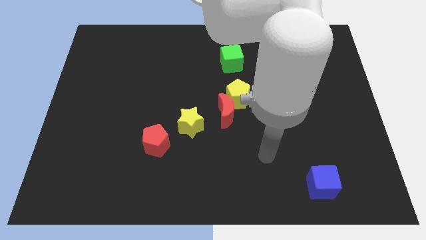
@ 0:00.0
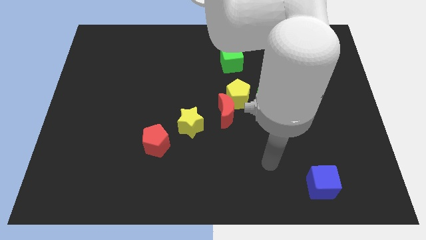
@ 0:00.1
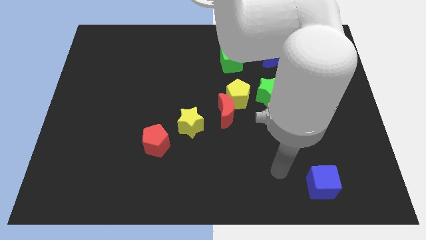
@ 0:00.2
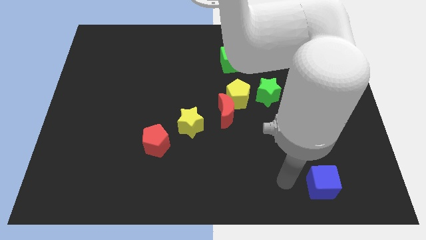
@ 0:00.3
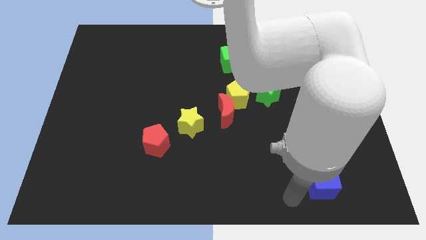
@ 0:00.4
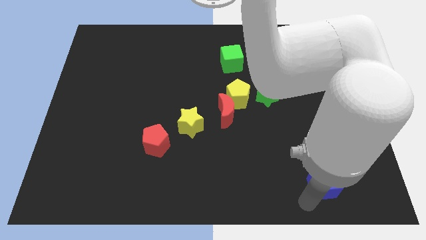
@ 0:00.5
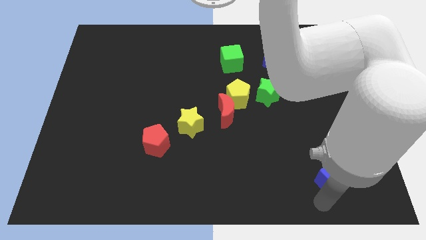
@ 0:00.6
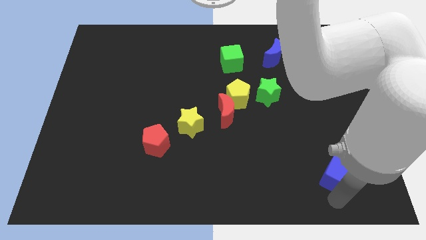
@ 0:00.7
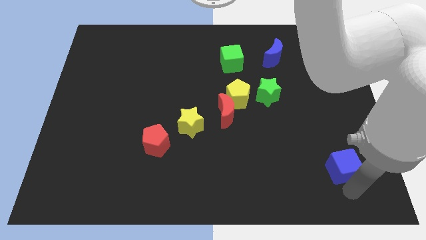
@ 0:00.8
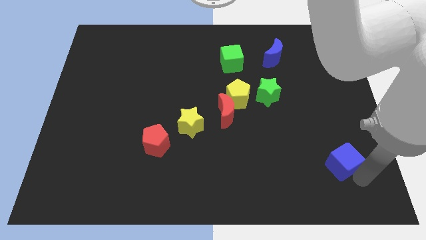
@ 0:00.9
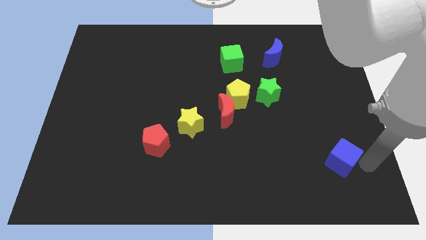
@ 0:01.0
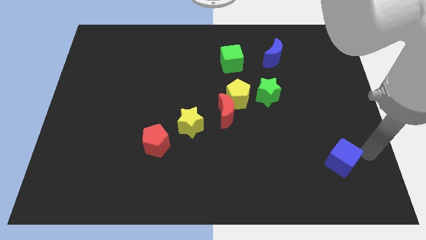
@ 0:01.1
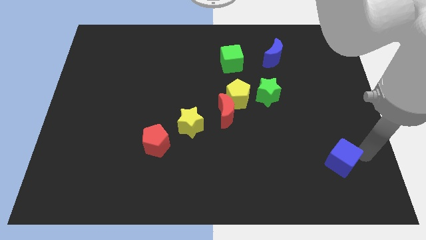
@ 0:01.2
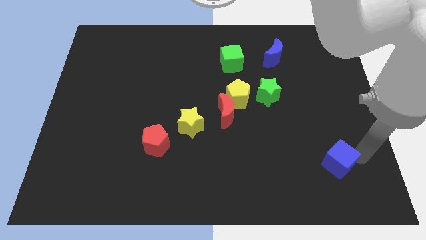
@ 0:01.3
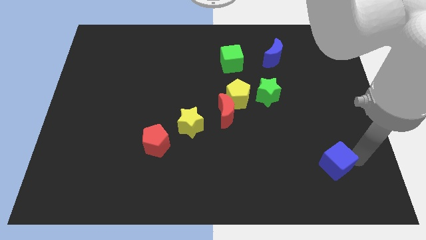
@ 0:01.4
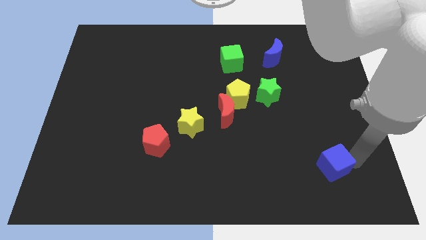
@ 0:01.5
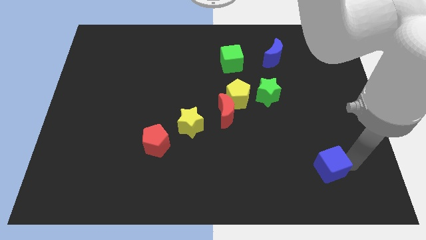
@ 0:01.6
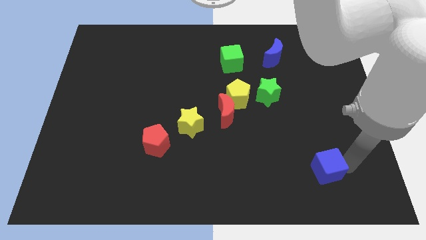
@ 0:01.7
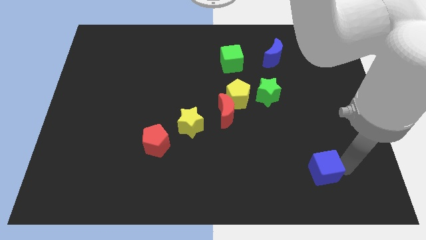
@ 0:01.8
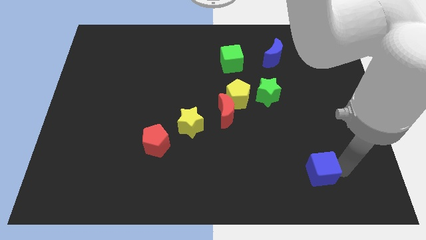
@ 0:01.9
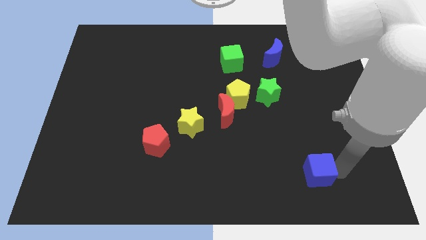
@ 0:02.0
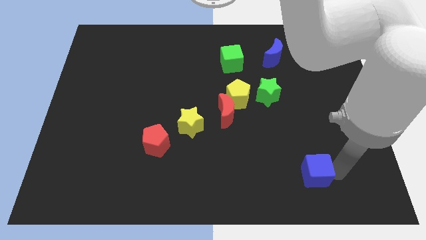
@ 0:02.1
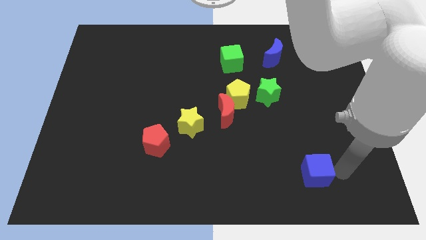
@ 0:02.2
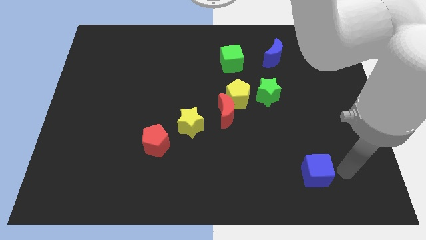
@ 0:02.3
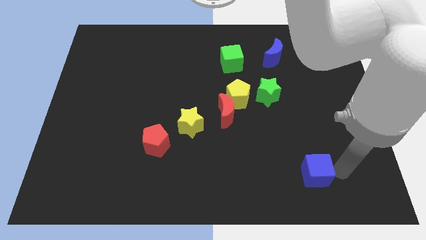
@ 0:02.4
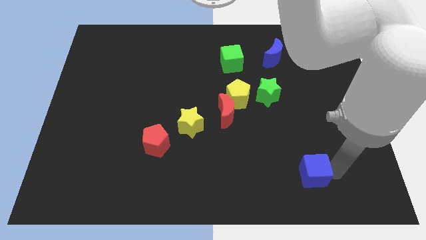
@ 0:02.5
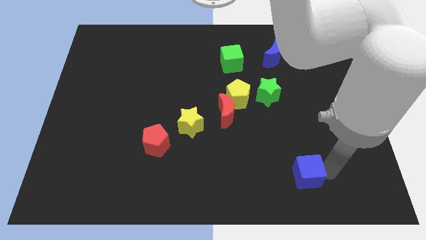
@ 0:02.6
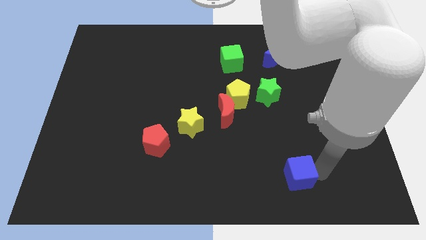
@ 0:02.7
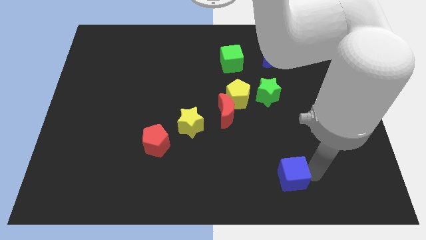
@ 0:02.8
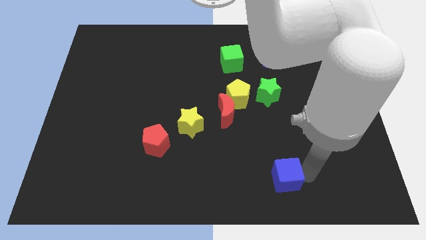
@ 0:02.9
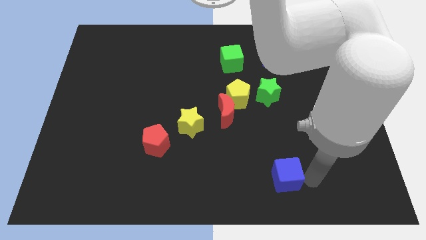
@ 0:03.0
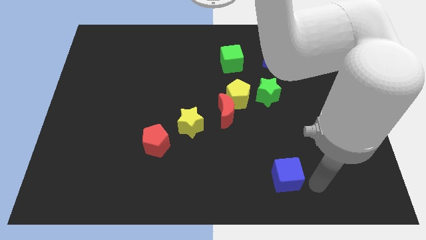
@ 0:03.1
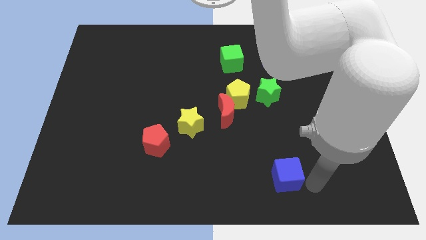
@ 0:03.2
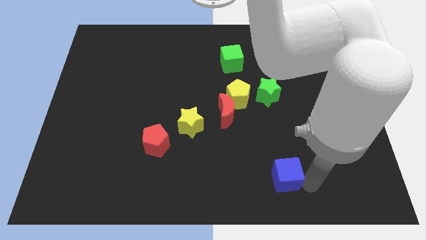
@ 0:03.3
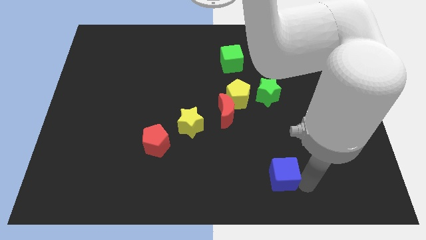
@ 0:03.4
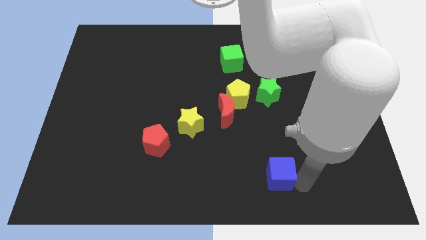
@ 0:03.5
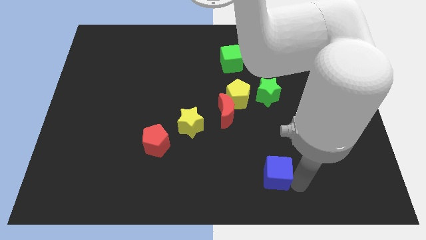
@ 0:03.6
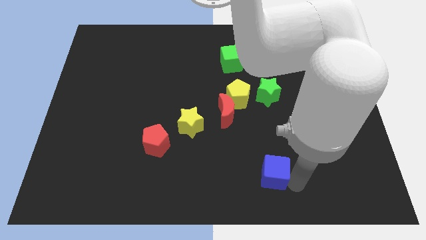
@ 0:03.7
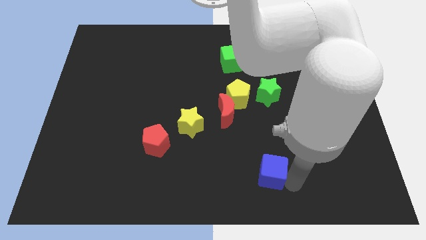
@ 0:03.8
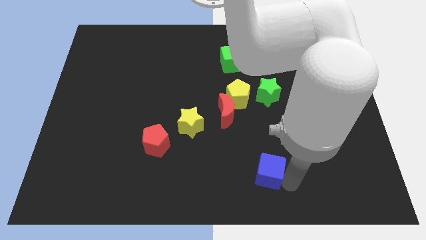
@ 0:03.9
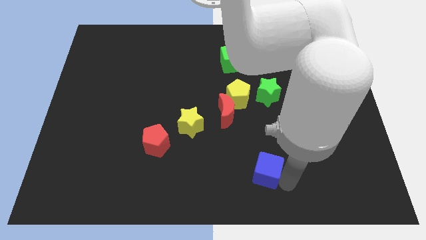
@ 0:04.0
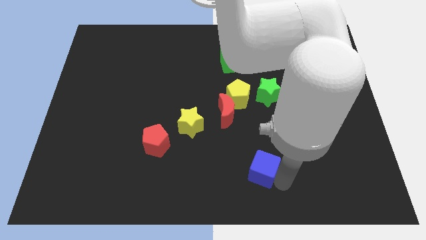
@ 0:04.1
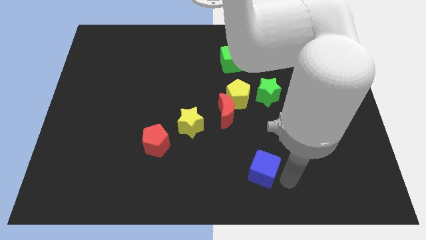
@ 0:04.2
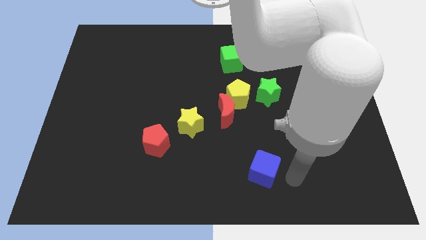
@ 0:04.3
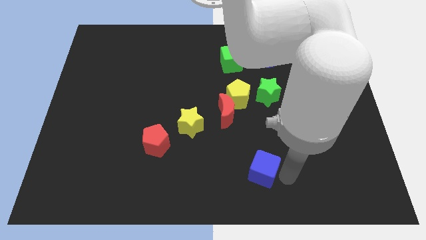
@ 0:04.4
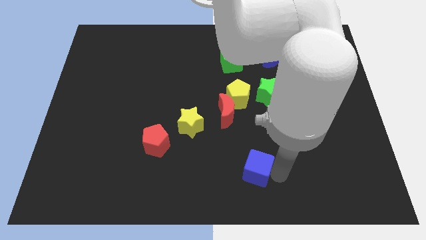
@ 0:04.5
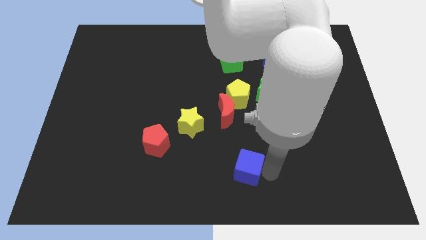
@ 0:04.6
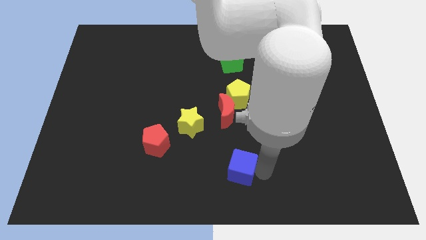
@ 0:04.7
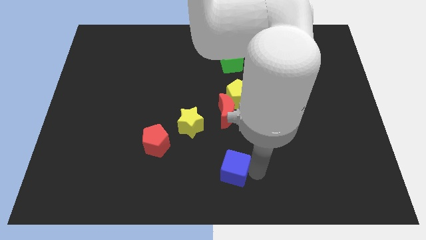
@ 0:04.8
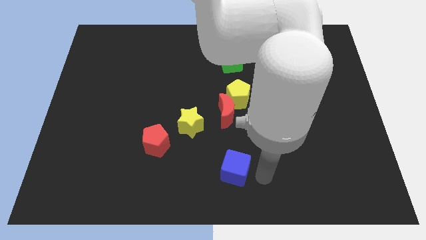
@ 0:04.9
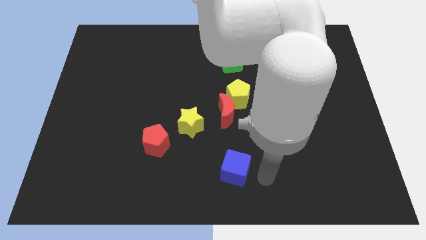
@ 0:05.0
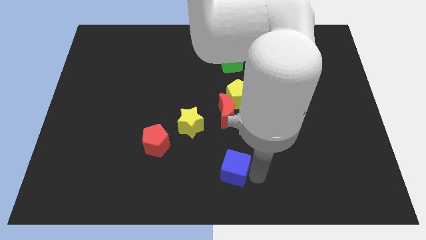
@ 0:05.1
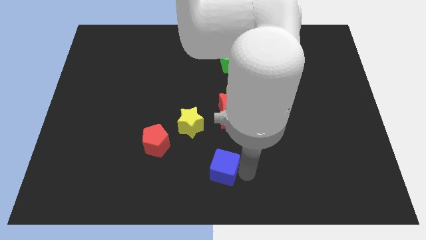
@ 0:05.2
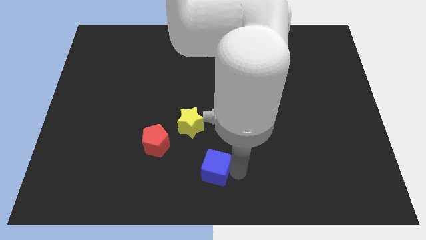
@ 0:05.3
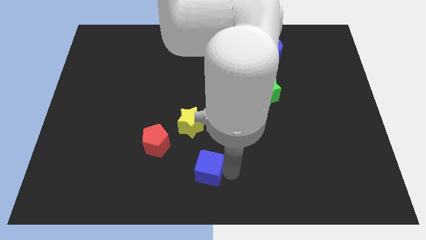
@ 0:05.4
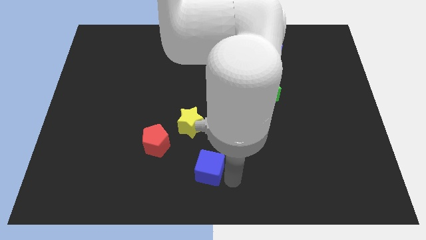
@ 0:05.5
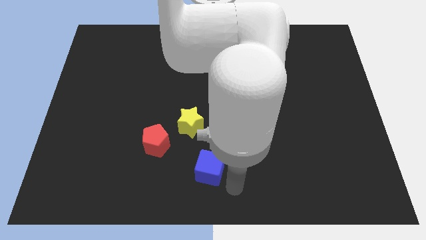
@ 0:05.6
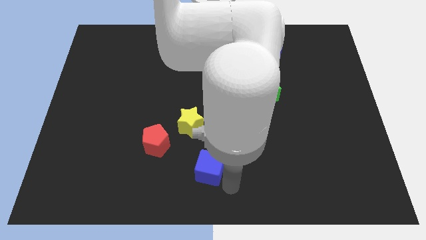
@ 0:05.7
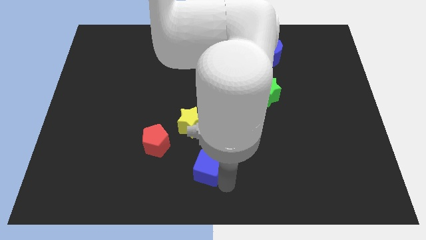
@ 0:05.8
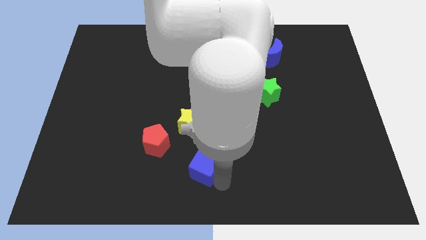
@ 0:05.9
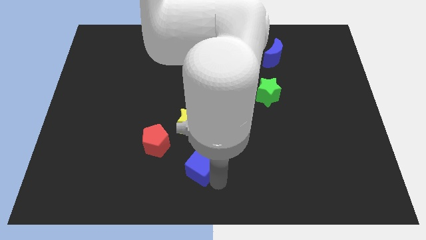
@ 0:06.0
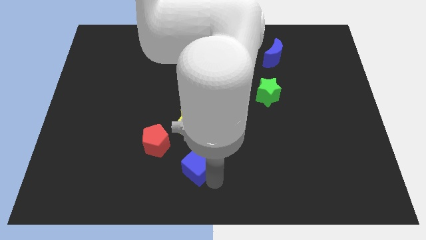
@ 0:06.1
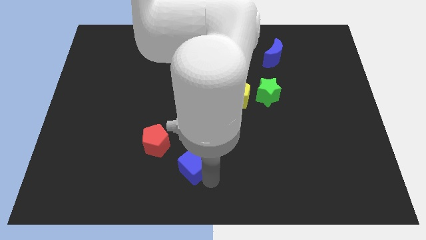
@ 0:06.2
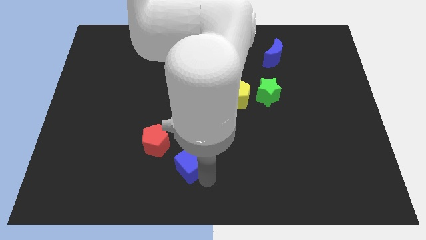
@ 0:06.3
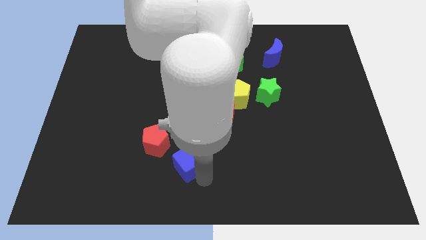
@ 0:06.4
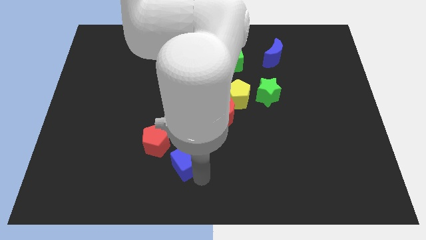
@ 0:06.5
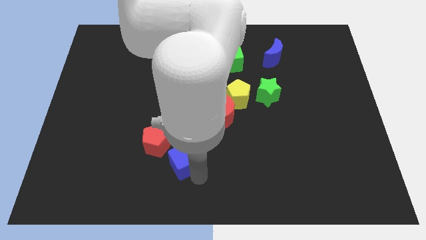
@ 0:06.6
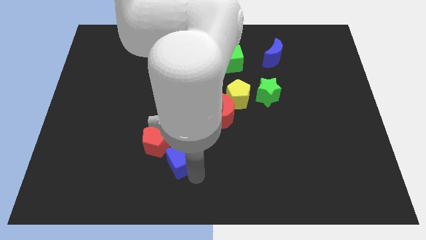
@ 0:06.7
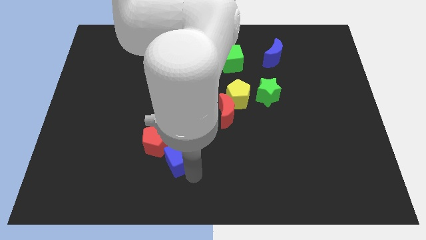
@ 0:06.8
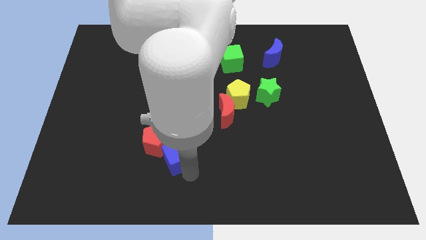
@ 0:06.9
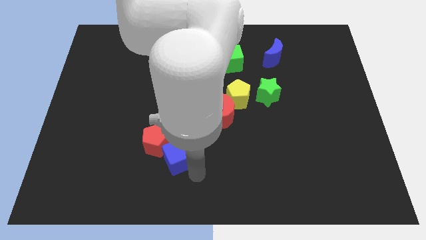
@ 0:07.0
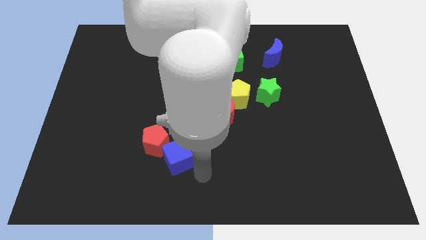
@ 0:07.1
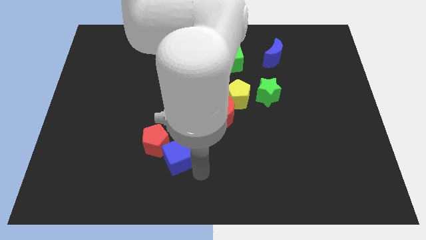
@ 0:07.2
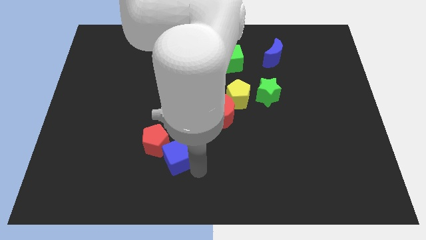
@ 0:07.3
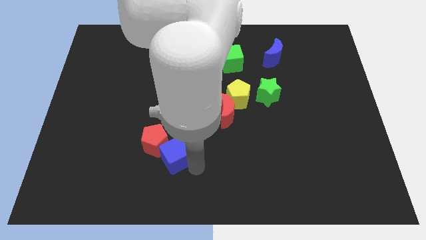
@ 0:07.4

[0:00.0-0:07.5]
put the blue cube close to the red pentagon
